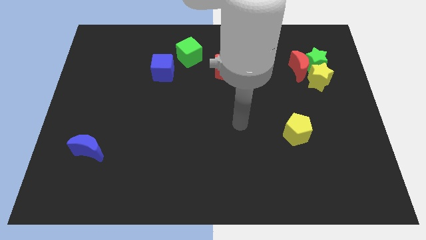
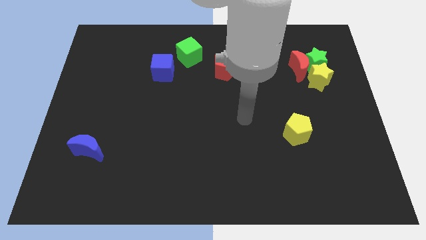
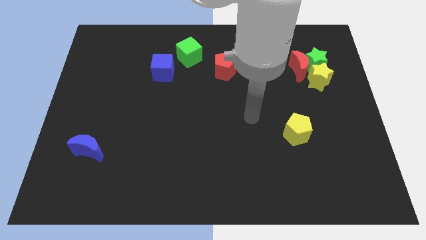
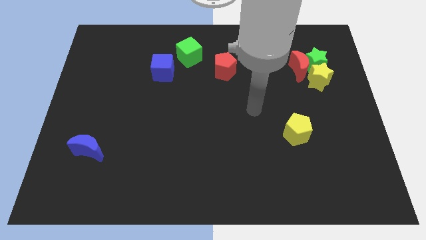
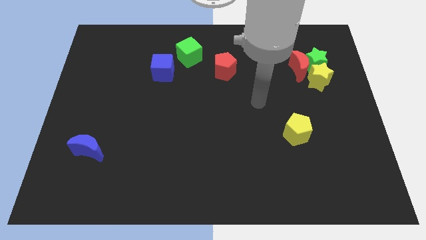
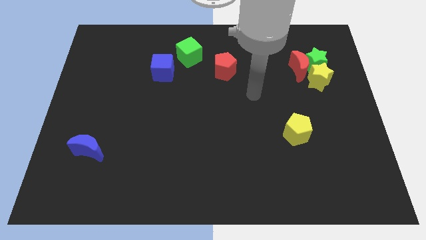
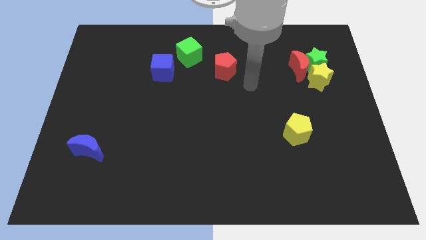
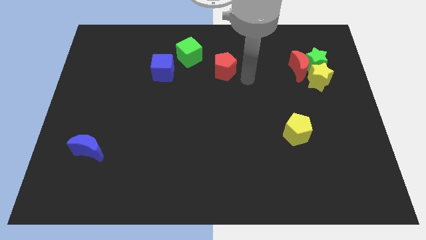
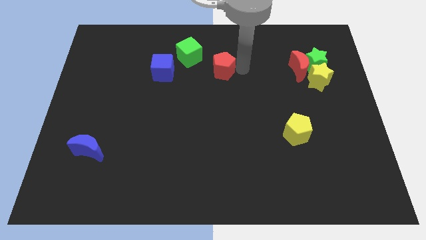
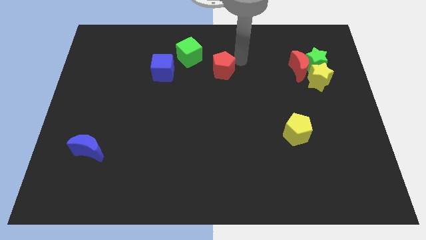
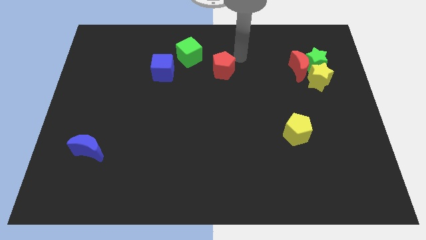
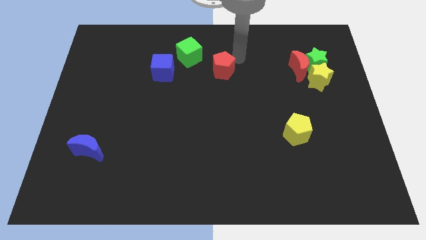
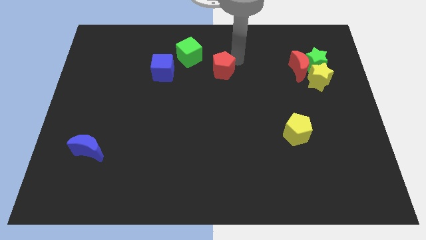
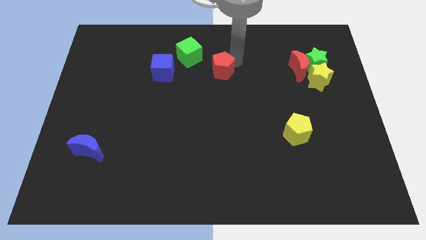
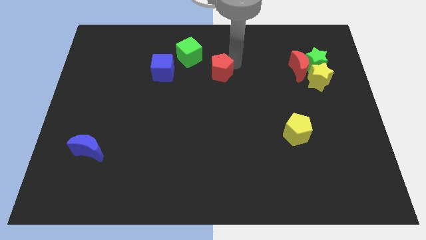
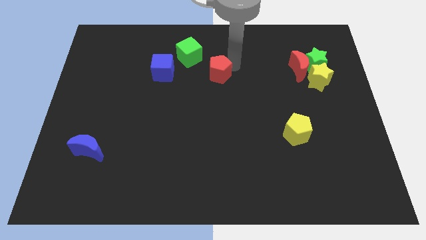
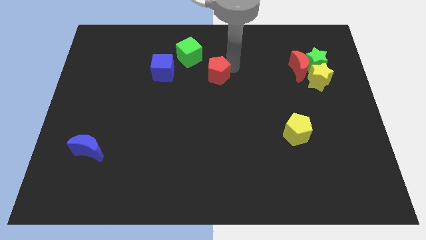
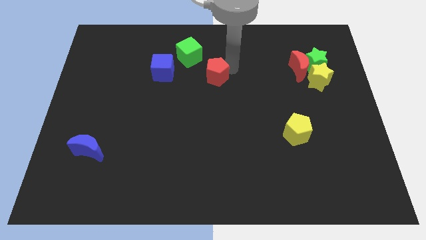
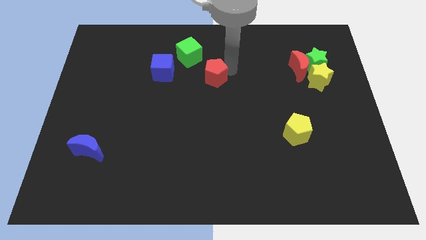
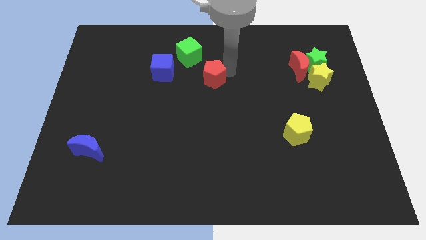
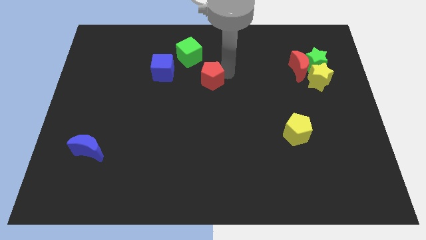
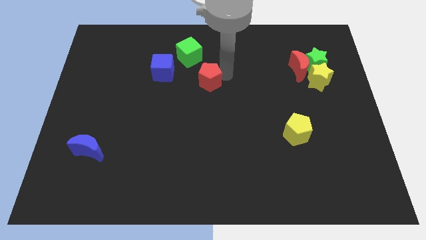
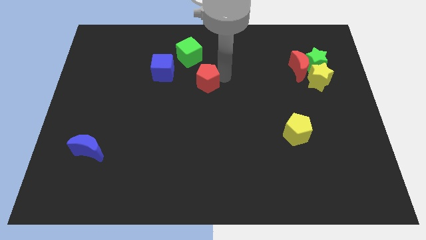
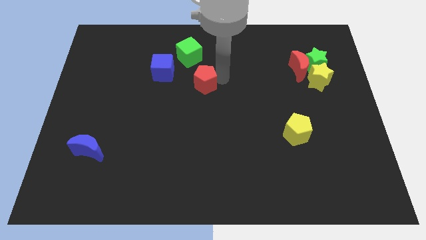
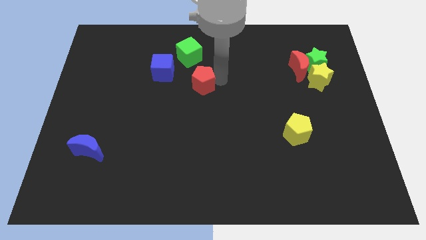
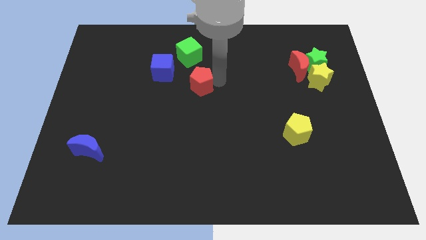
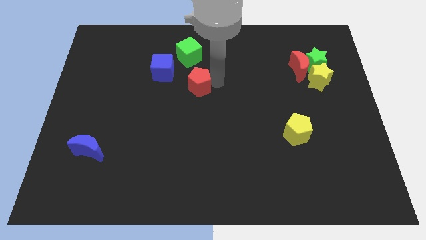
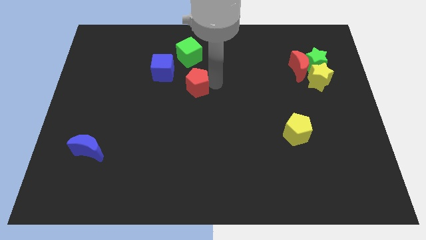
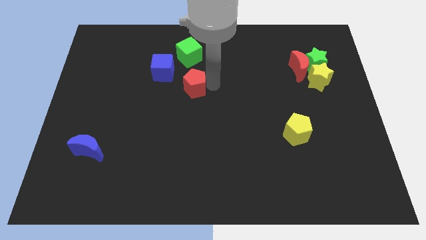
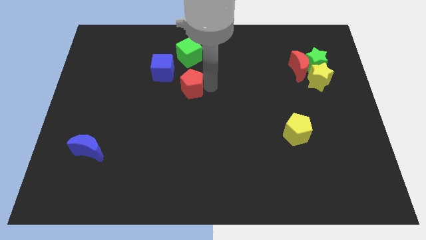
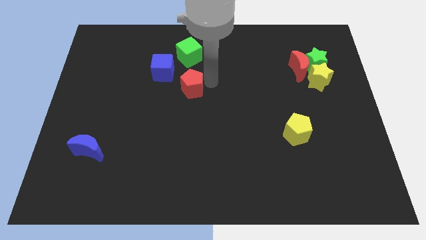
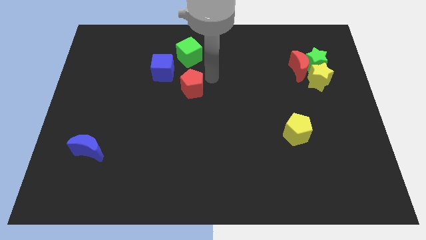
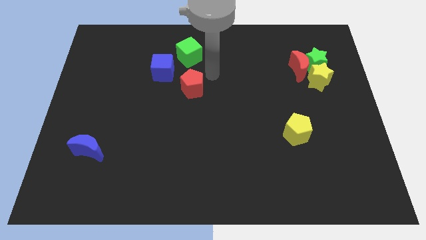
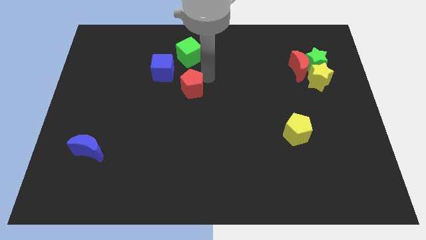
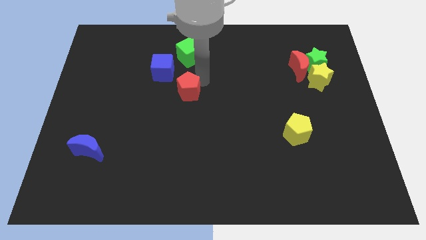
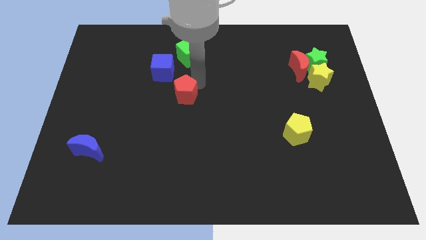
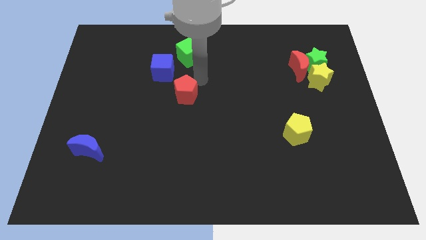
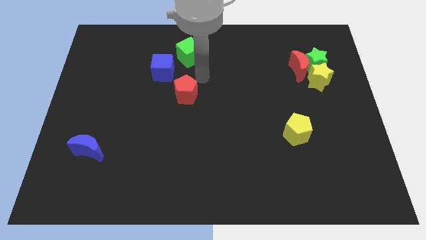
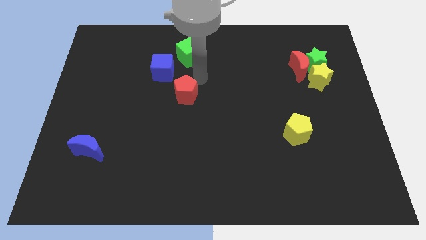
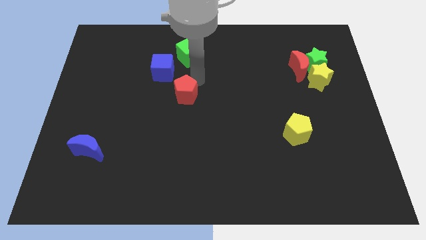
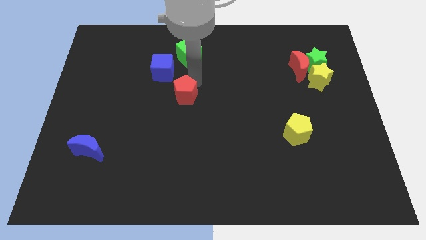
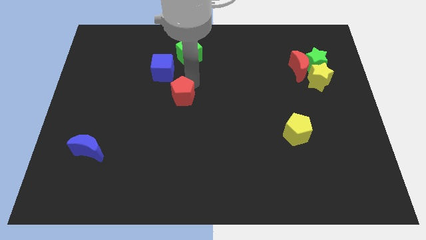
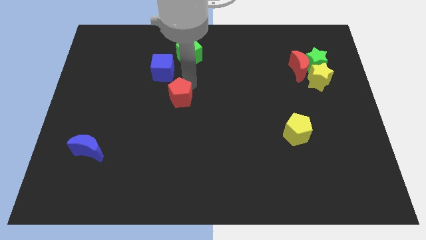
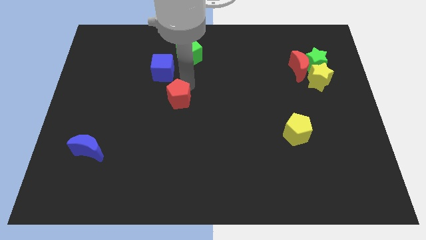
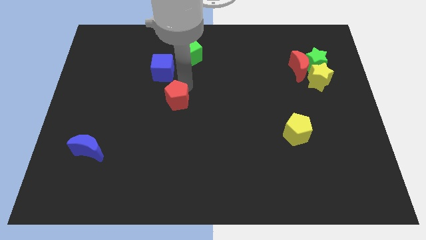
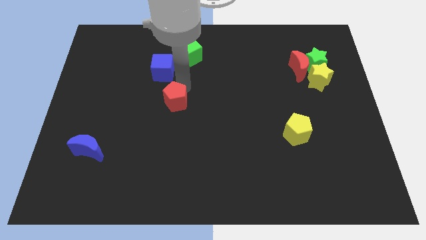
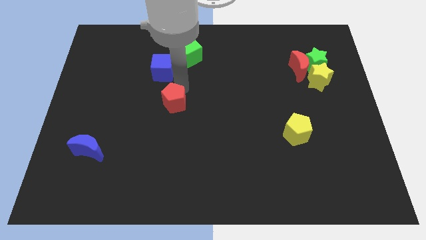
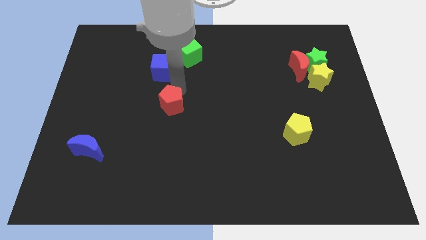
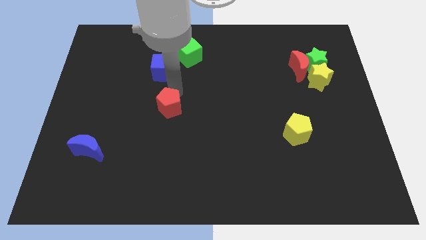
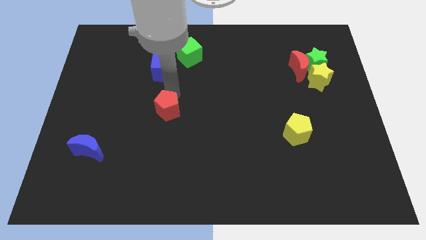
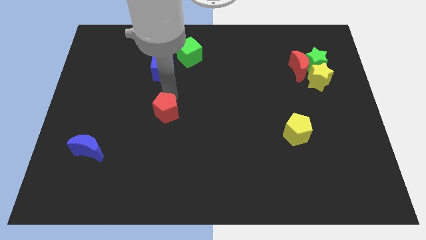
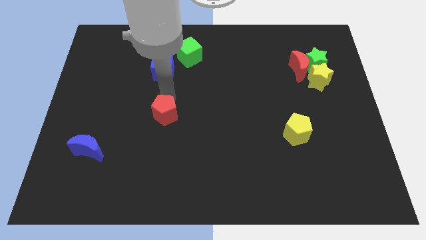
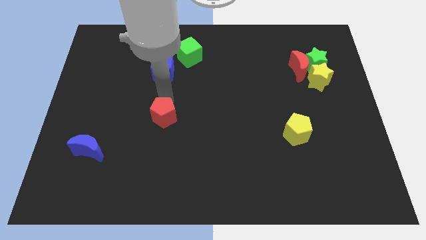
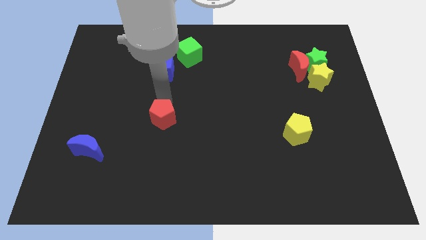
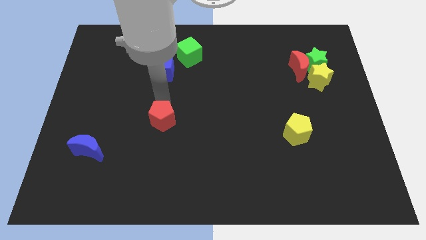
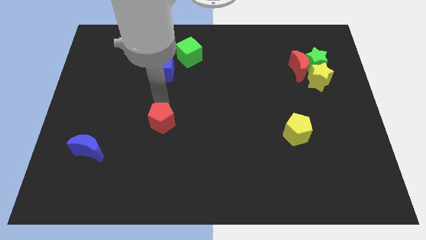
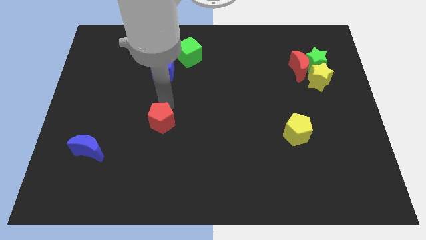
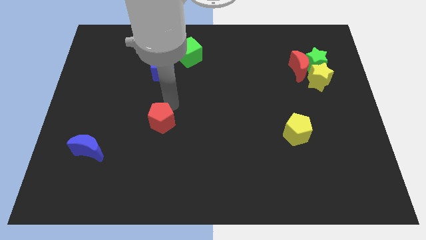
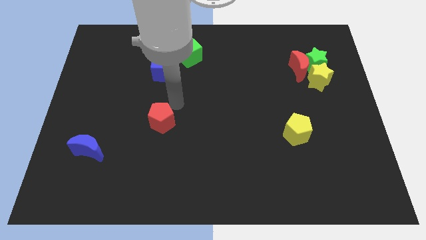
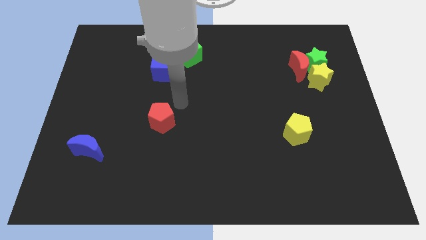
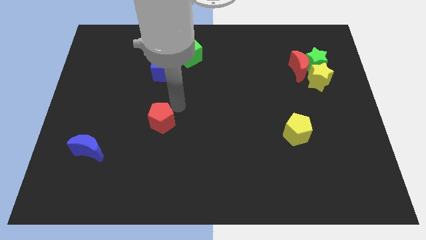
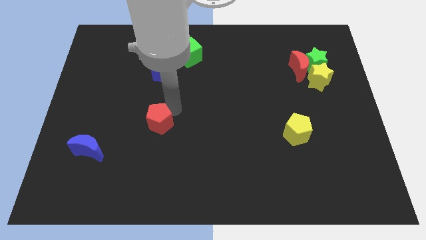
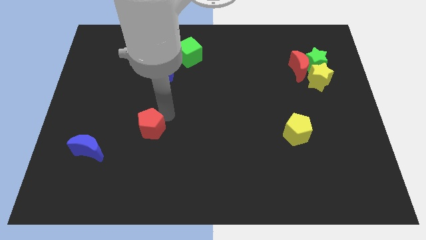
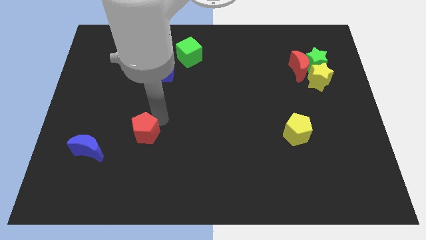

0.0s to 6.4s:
push the red pentagon just right of the blue moon
